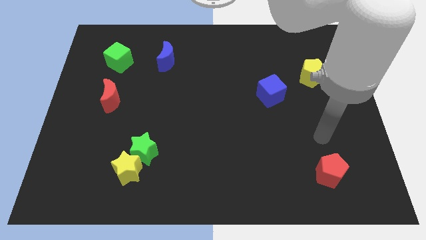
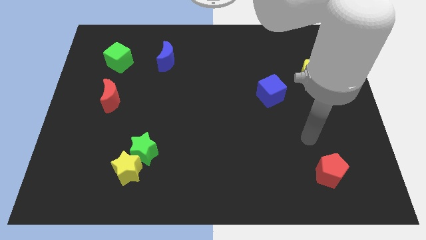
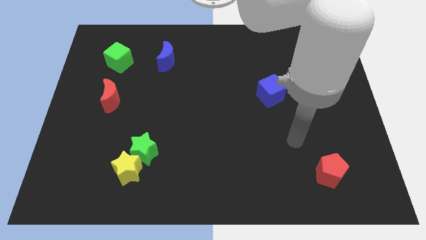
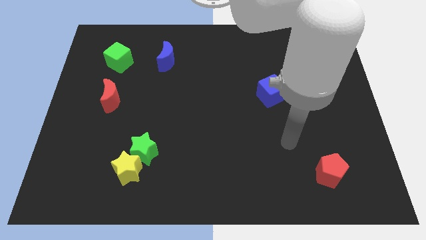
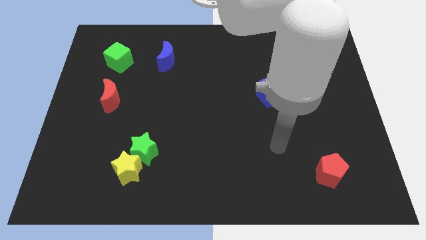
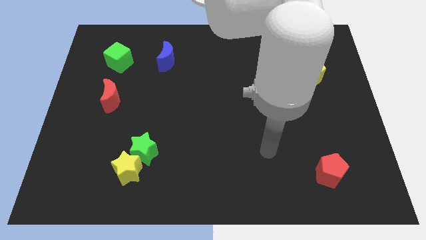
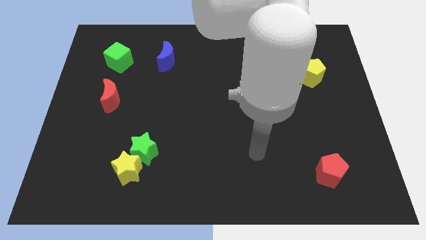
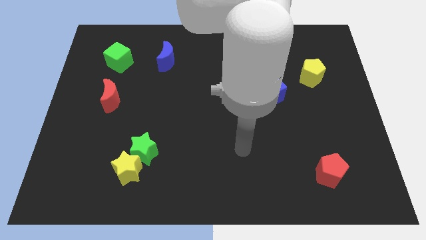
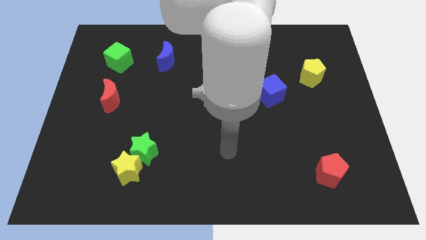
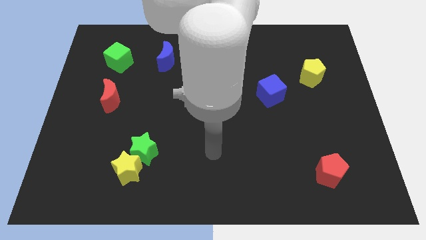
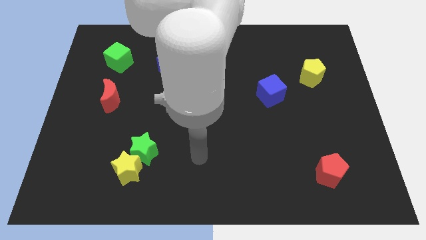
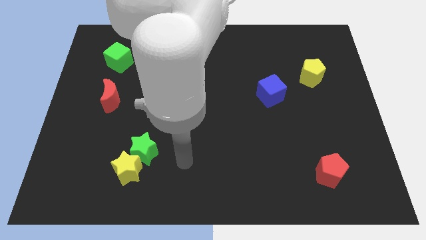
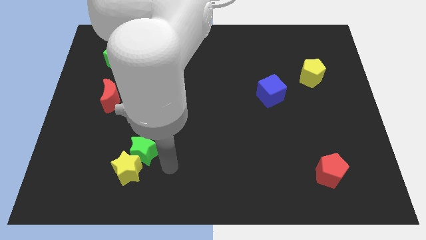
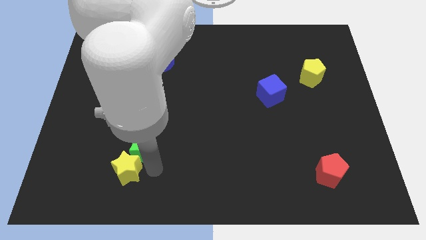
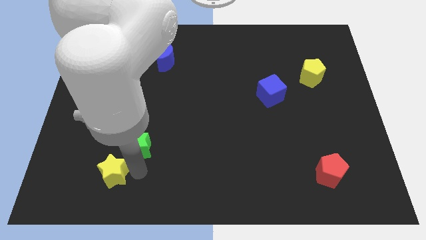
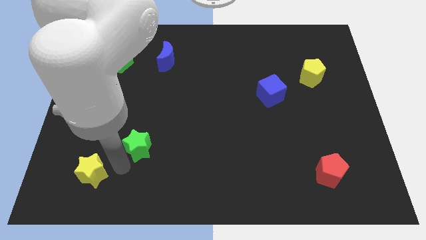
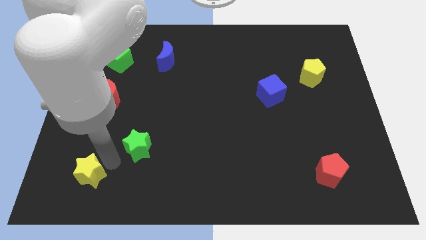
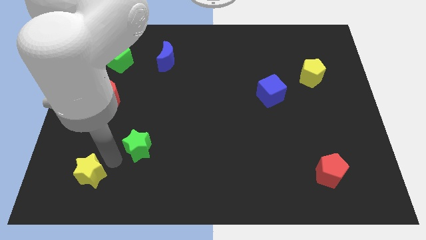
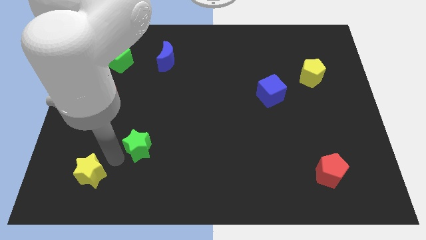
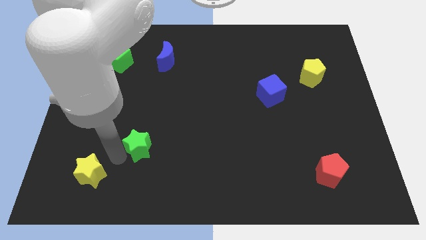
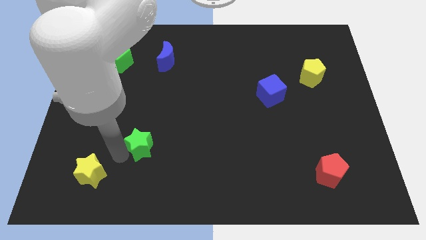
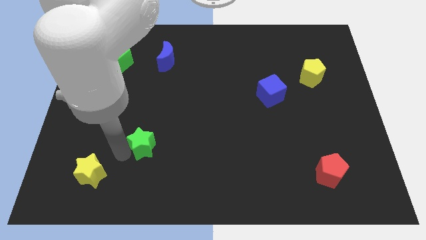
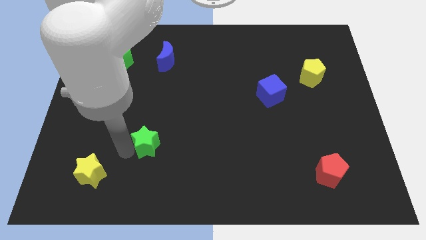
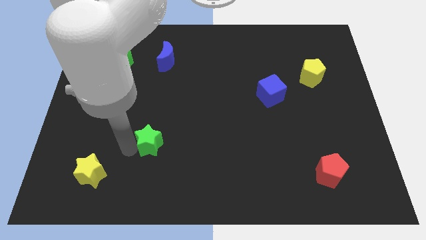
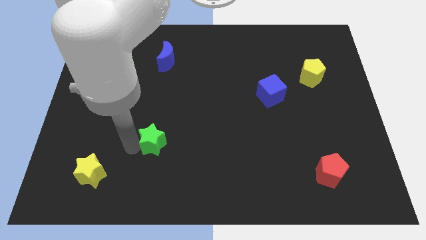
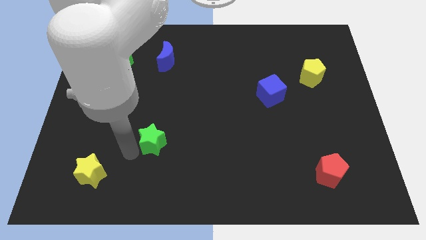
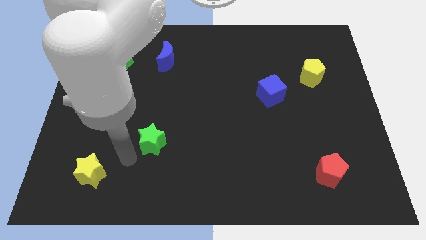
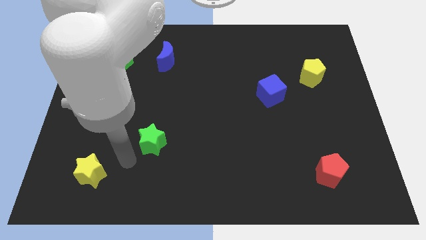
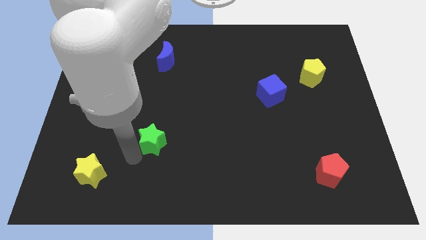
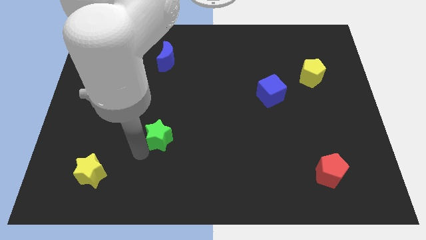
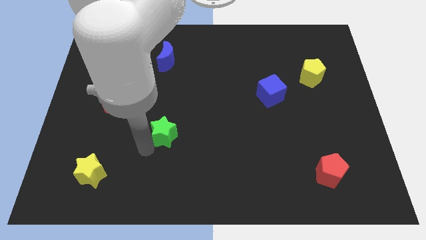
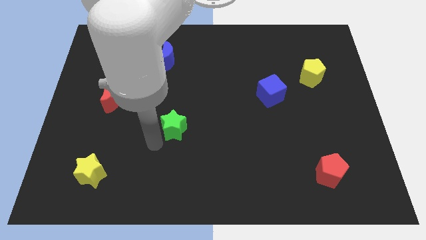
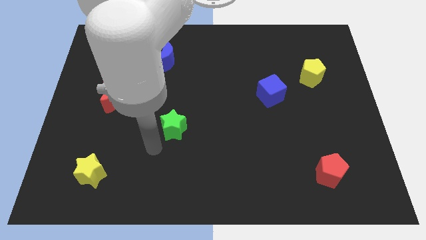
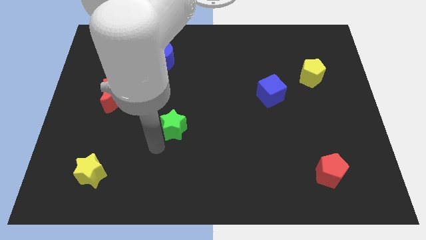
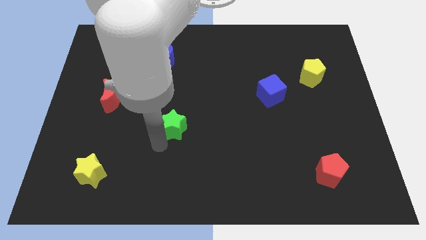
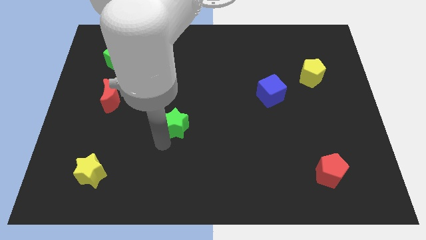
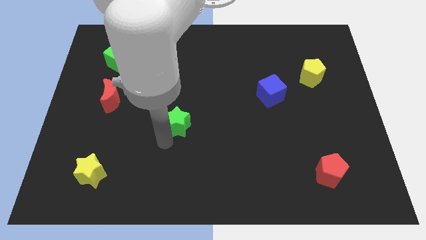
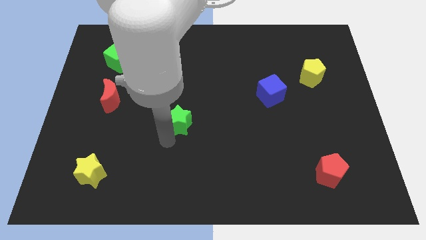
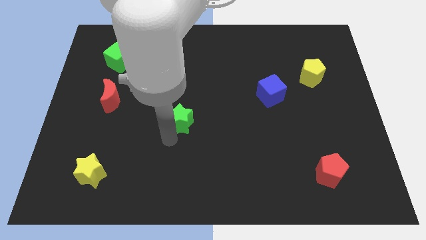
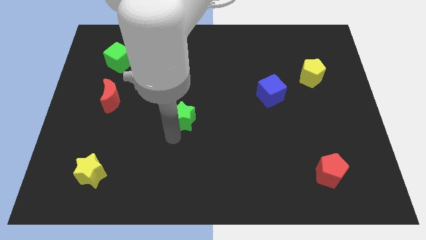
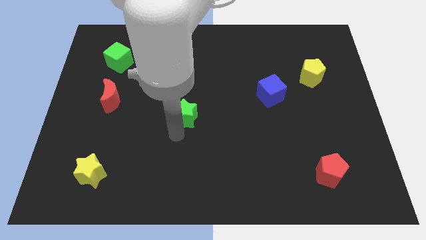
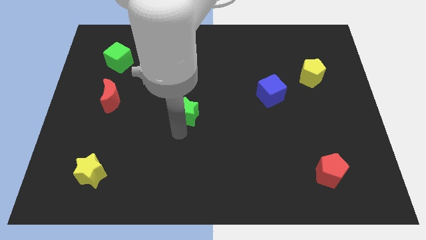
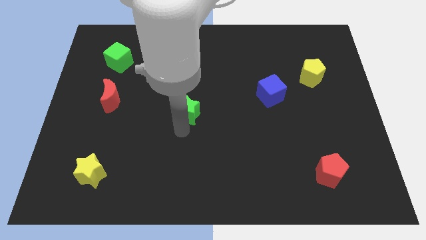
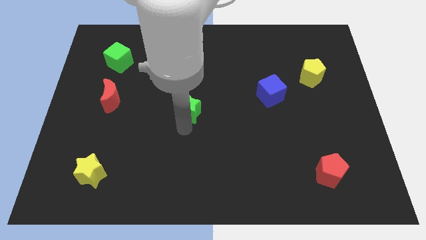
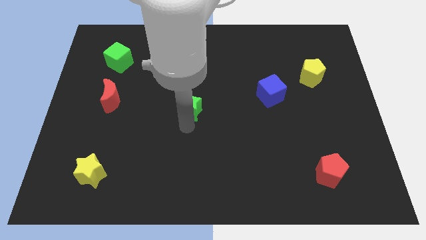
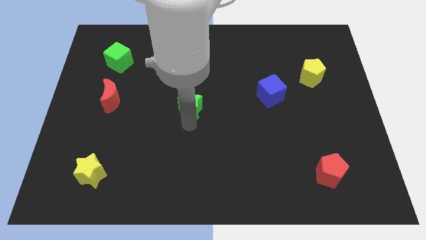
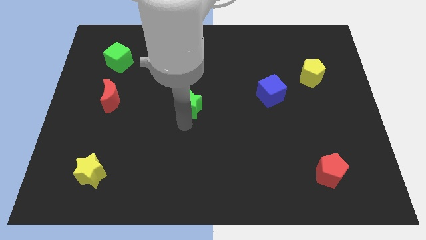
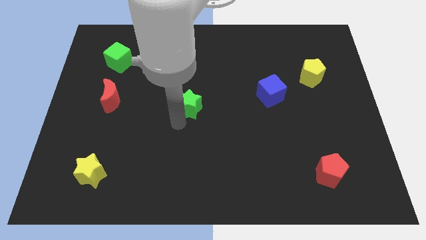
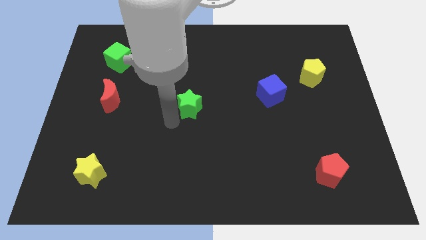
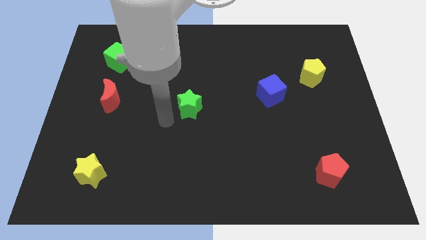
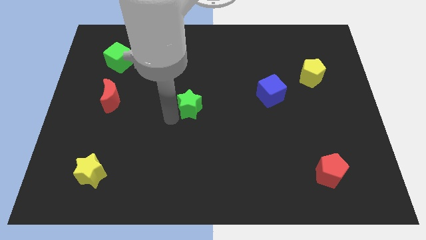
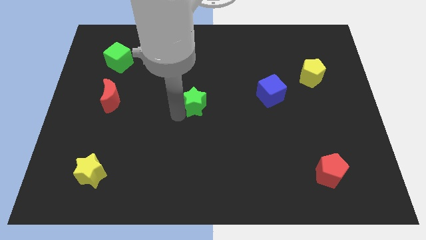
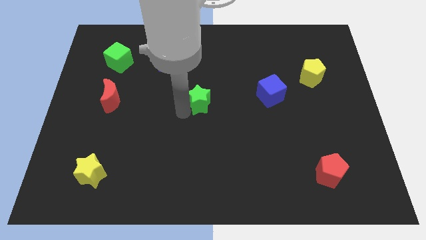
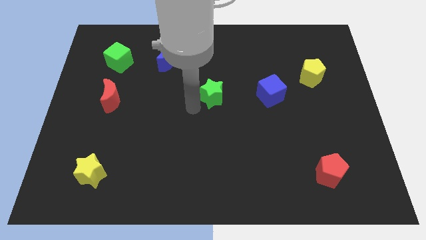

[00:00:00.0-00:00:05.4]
move the green star upwards and right diagonally

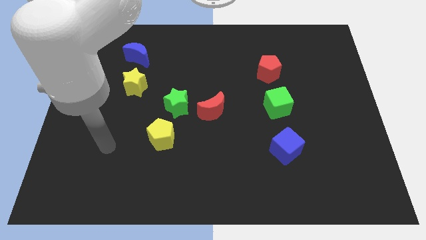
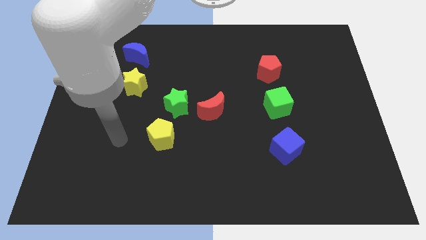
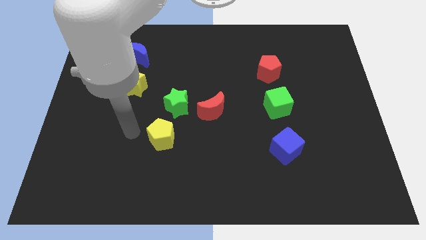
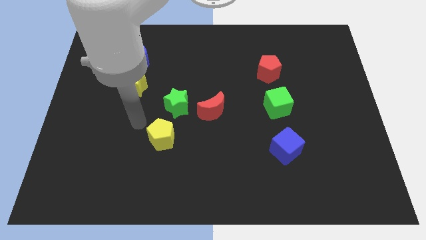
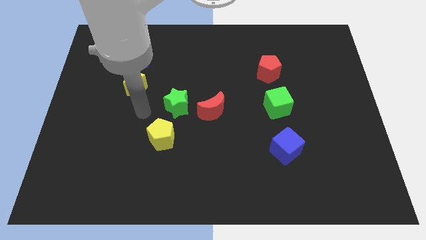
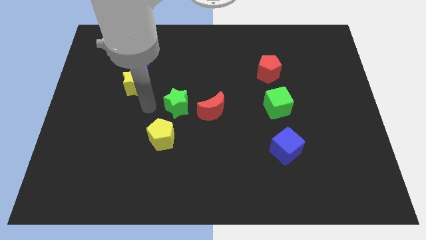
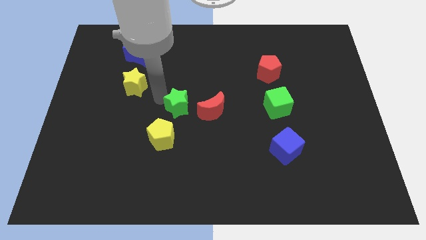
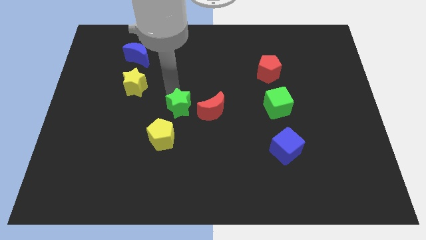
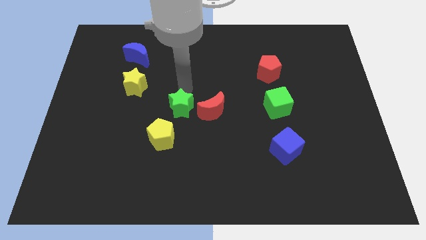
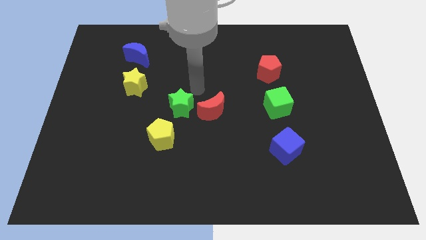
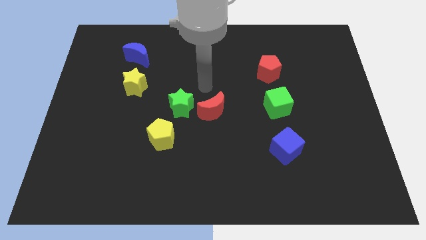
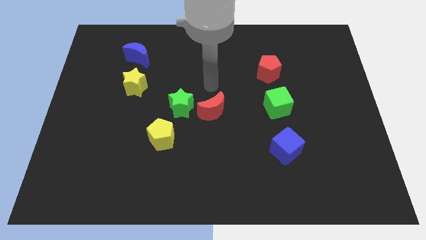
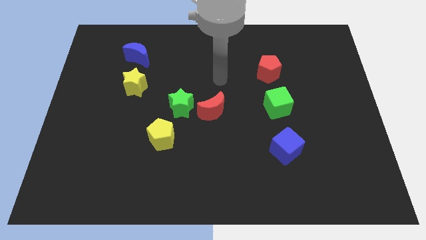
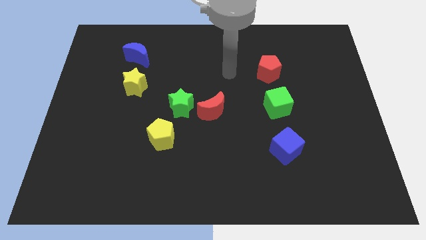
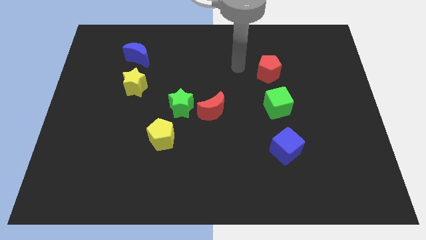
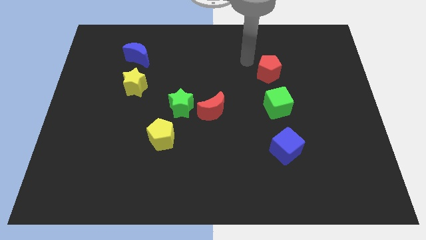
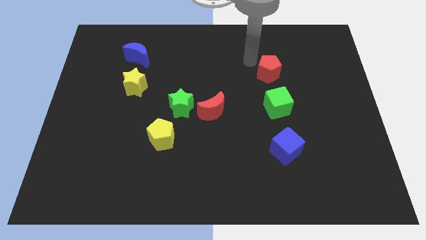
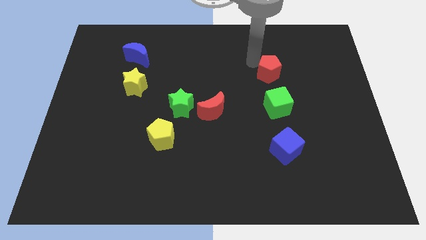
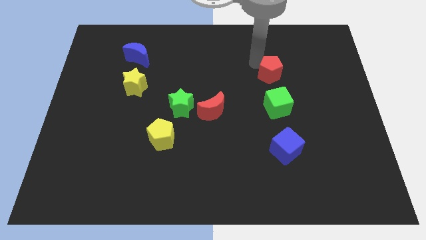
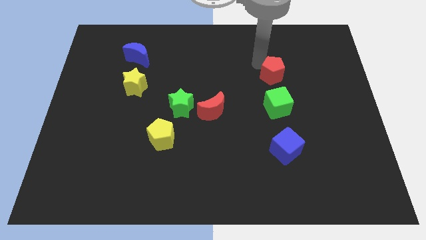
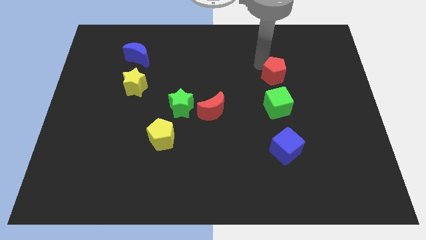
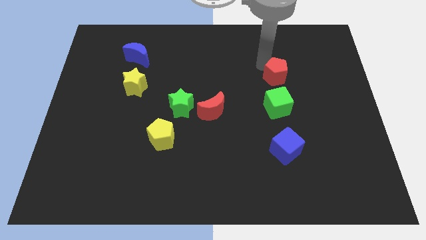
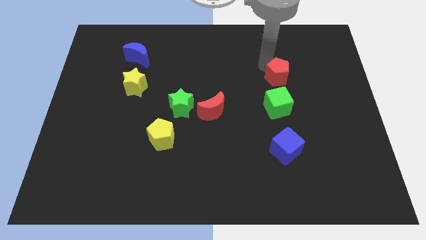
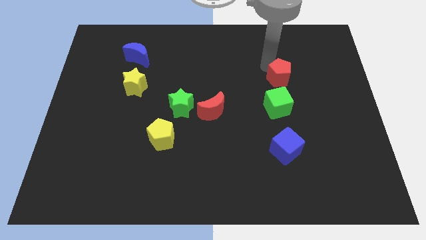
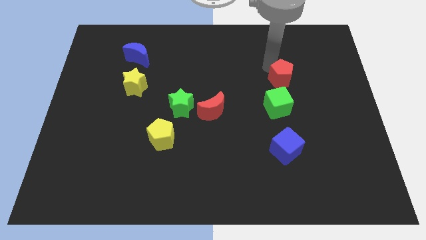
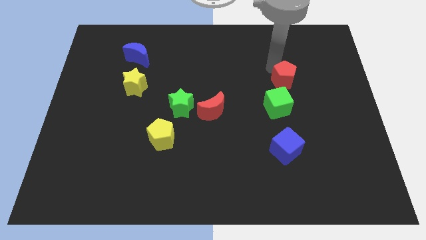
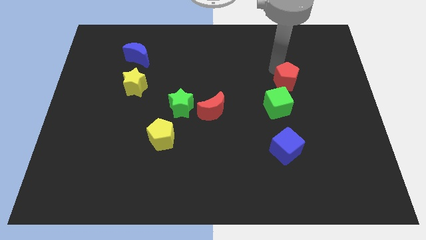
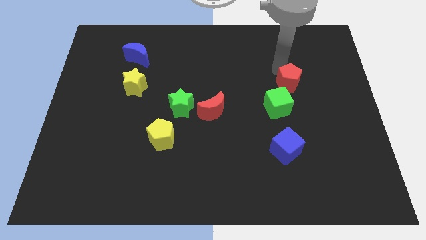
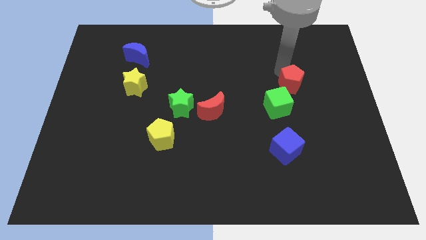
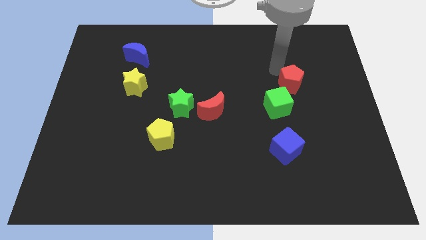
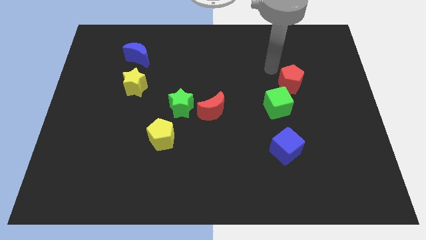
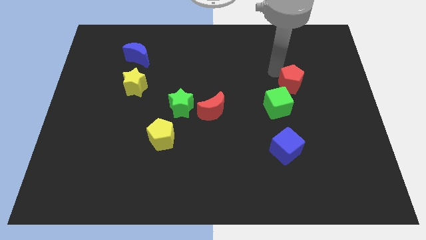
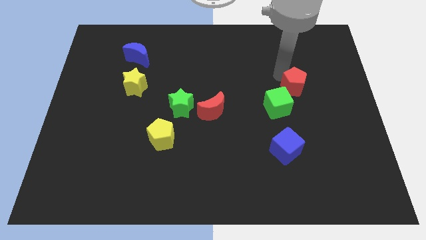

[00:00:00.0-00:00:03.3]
slide the red pentagon a little bit down and to the right diagonally
